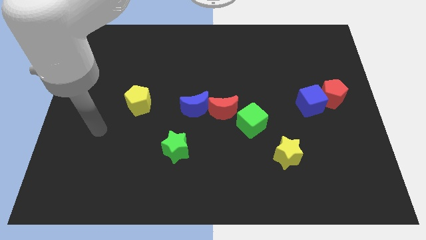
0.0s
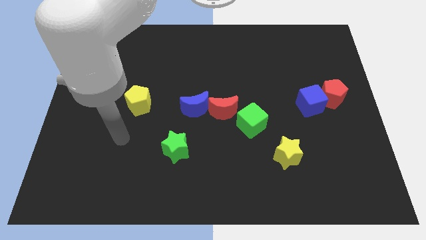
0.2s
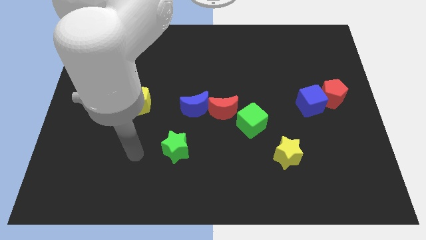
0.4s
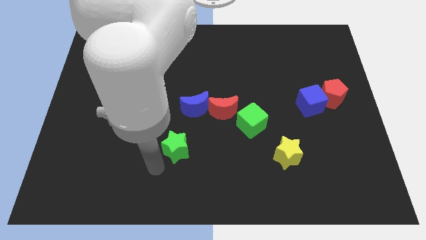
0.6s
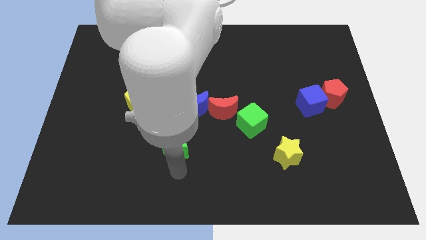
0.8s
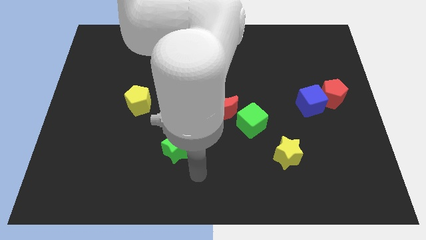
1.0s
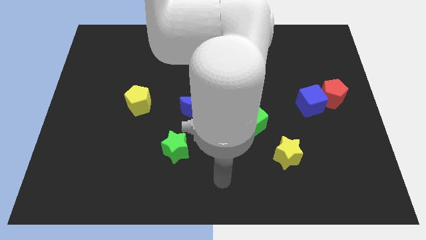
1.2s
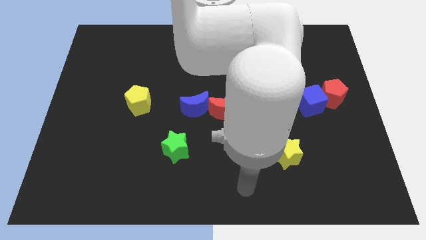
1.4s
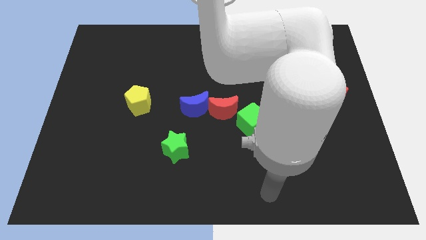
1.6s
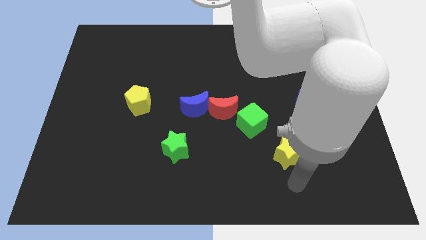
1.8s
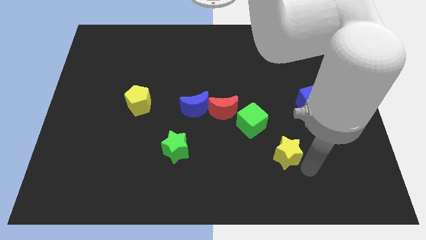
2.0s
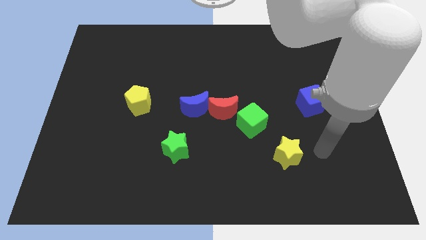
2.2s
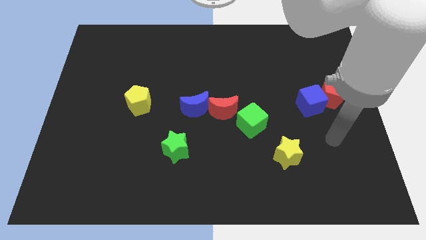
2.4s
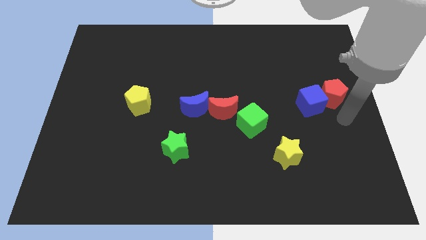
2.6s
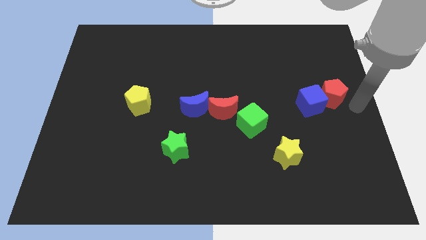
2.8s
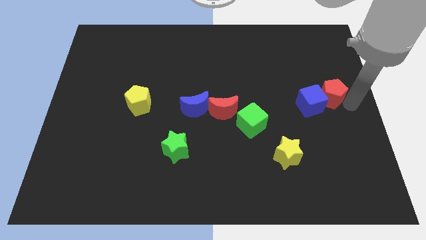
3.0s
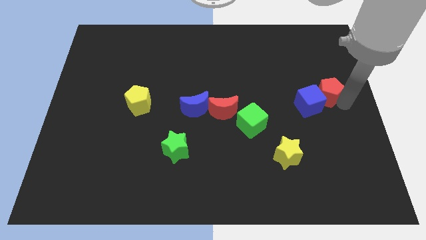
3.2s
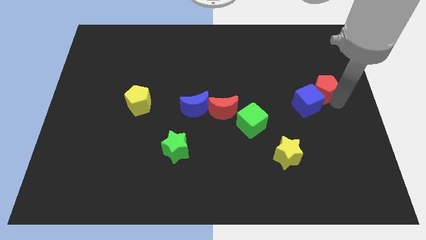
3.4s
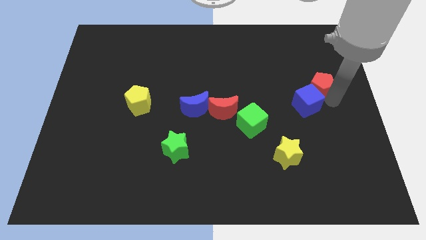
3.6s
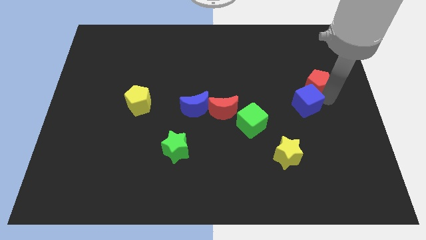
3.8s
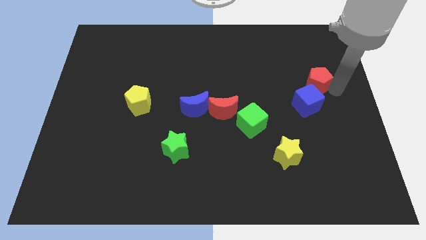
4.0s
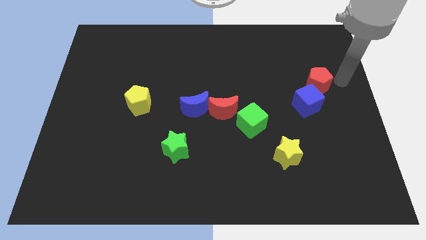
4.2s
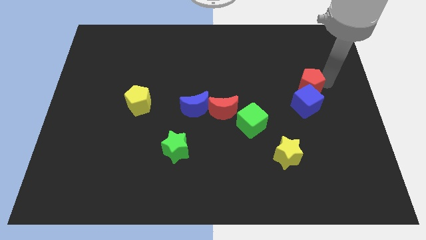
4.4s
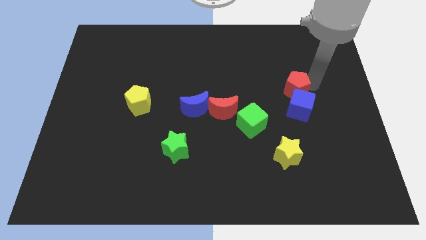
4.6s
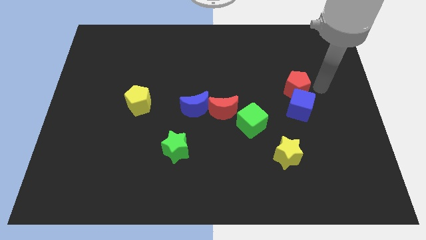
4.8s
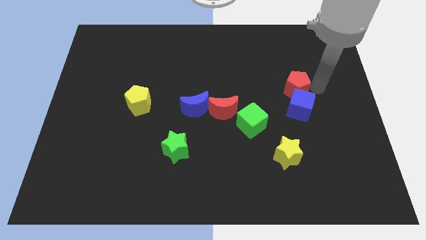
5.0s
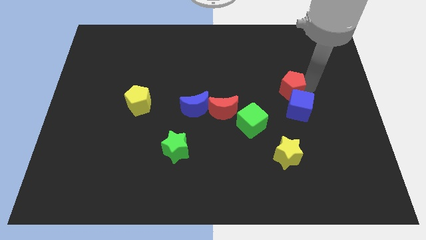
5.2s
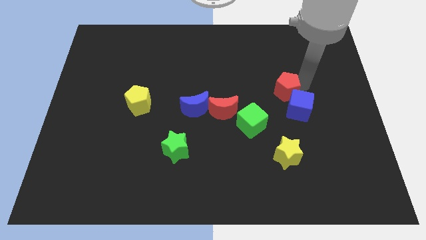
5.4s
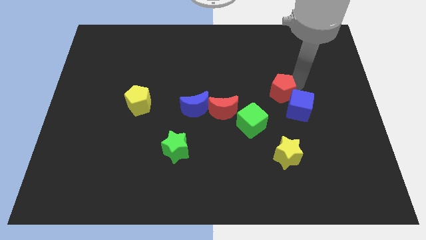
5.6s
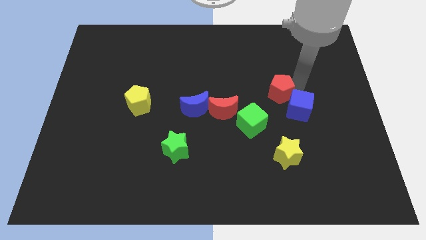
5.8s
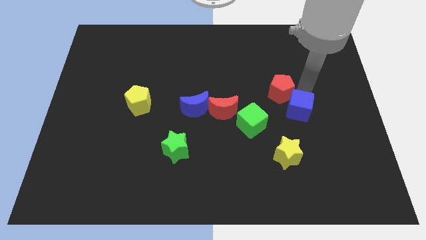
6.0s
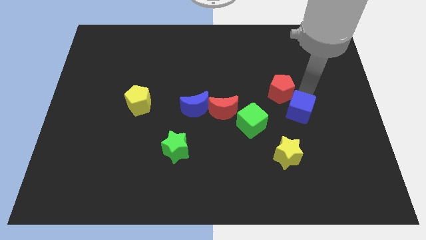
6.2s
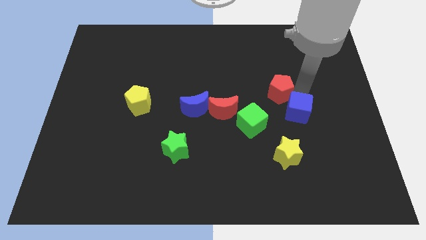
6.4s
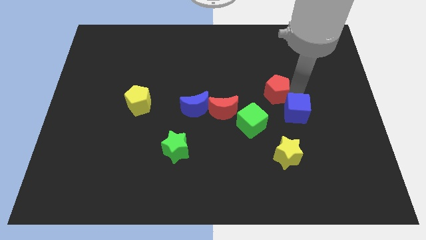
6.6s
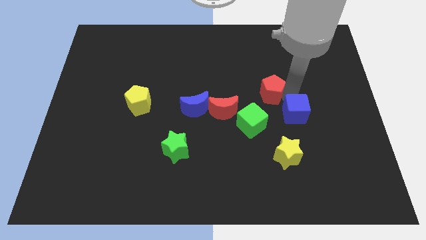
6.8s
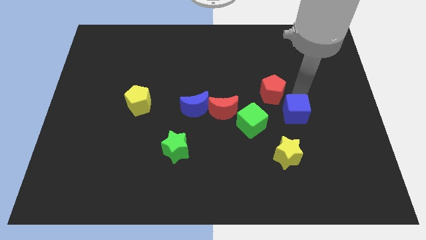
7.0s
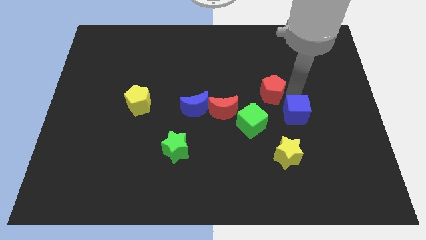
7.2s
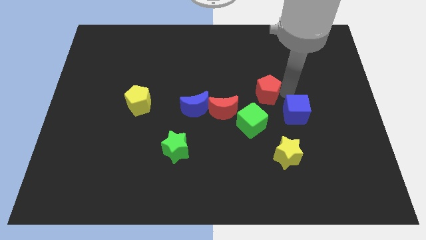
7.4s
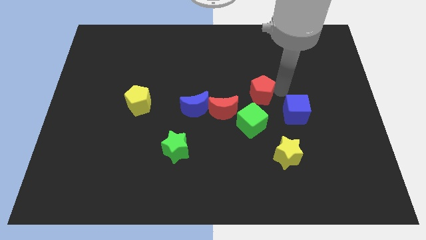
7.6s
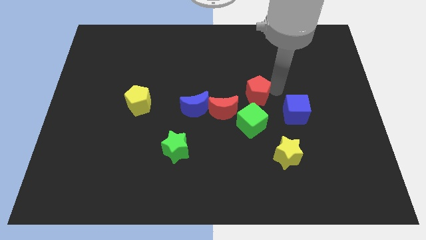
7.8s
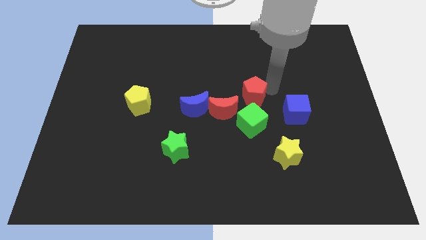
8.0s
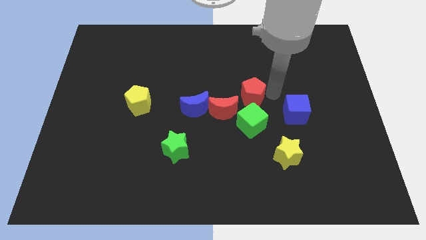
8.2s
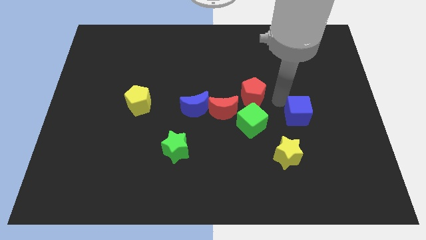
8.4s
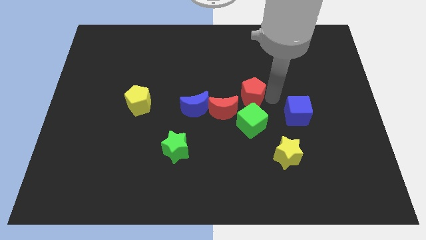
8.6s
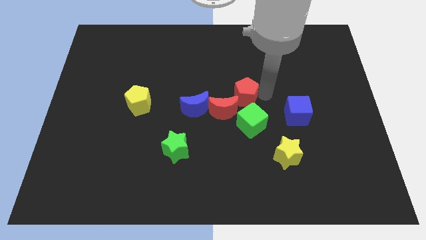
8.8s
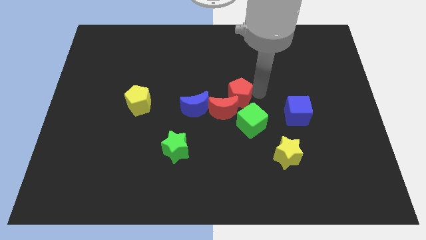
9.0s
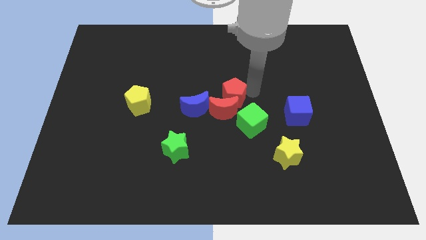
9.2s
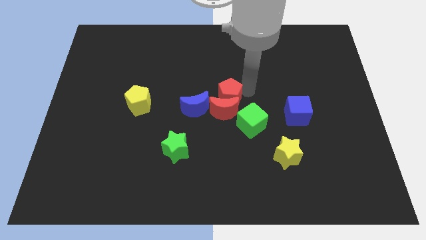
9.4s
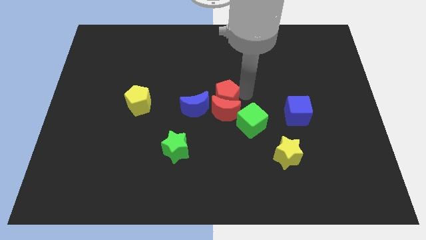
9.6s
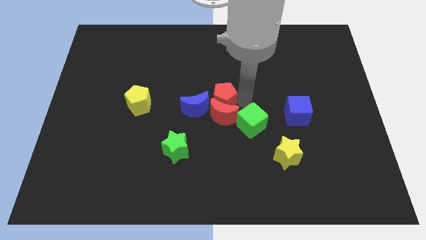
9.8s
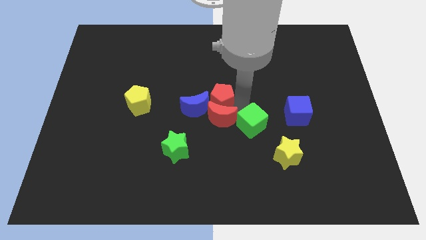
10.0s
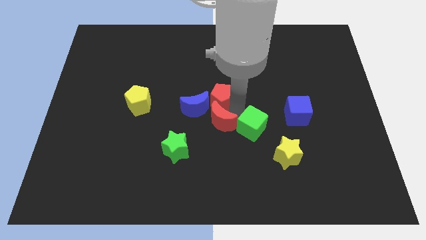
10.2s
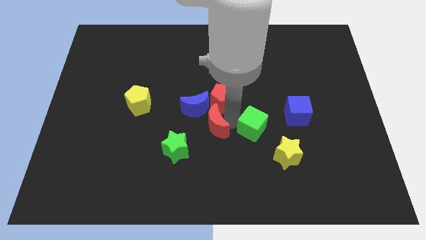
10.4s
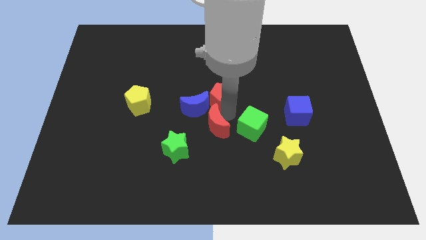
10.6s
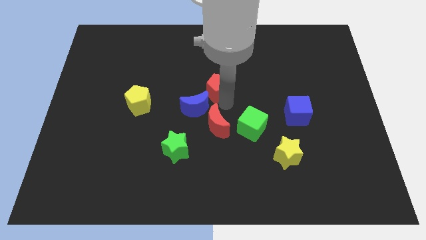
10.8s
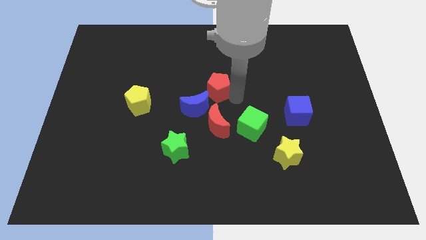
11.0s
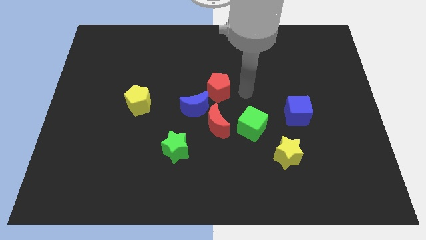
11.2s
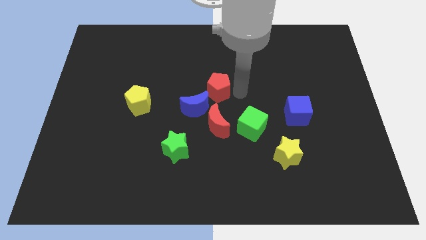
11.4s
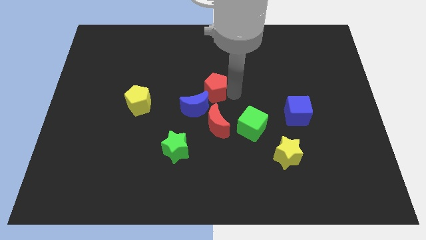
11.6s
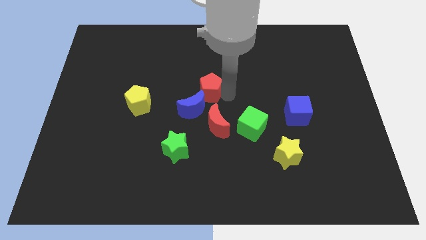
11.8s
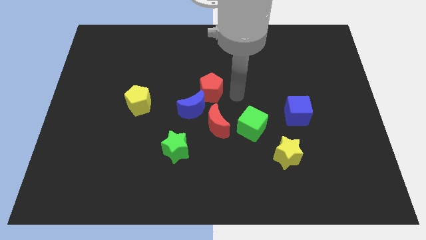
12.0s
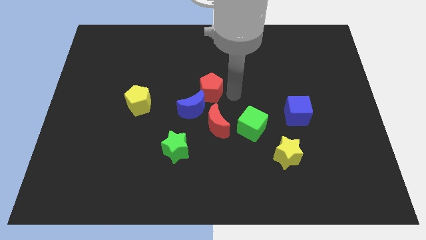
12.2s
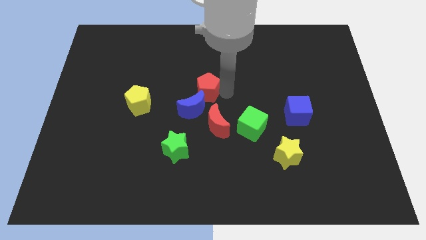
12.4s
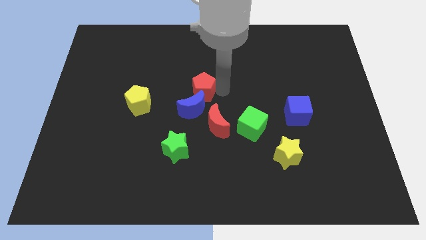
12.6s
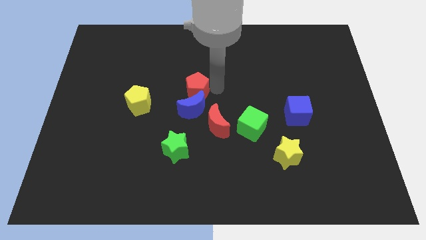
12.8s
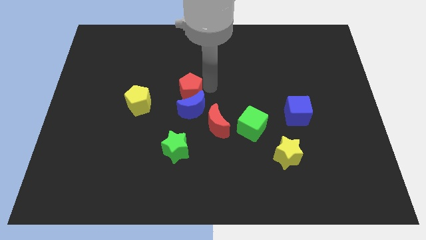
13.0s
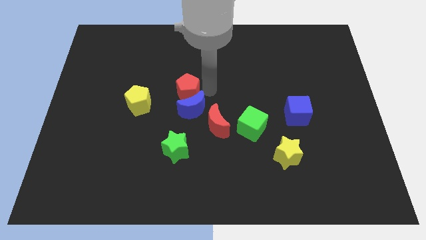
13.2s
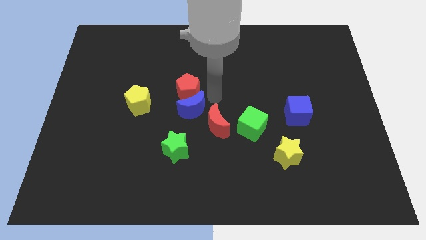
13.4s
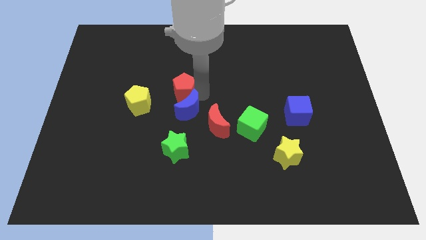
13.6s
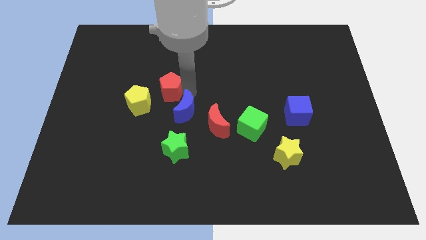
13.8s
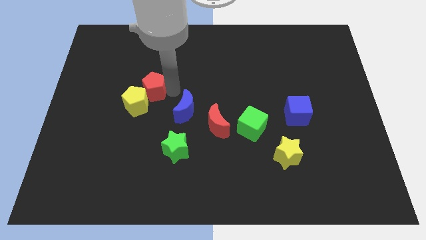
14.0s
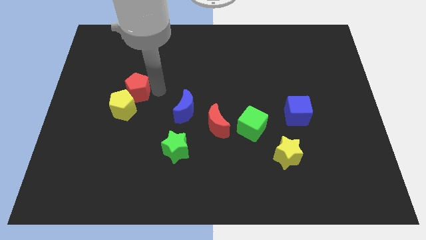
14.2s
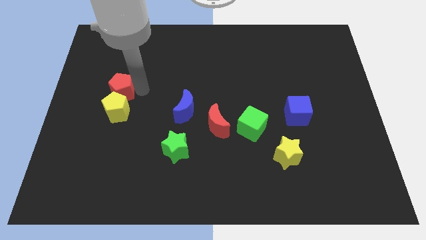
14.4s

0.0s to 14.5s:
push the red pentagon to the top left side of the yellow pentagon

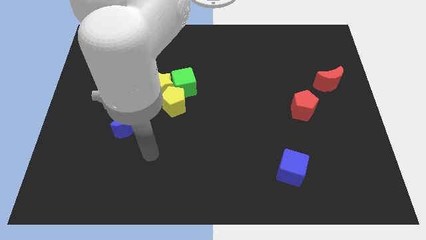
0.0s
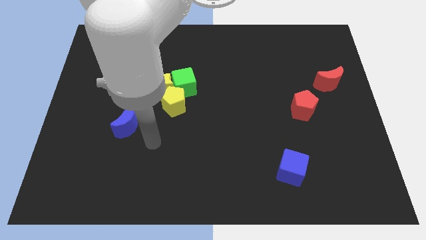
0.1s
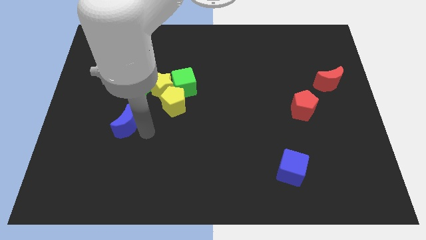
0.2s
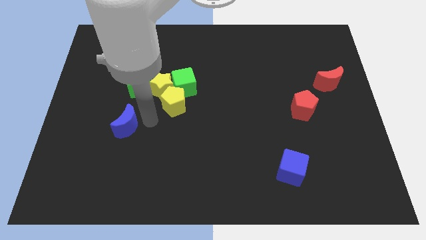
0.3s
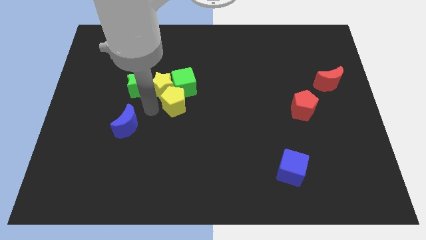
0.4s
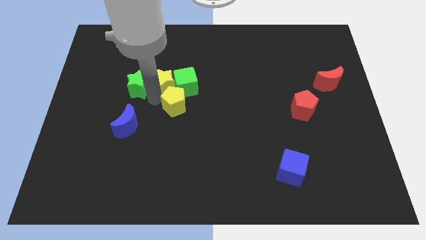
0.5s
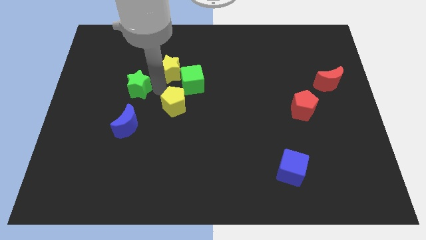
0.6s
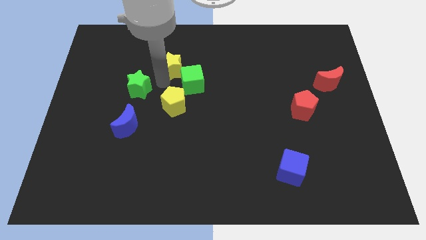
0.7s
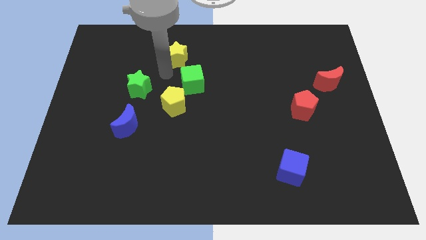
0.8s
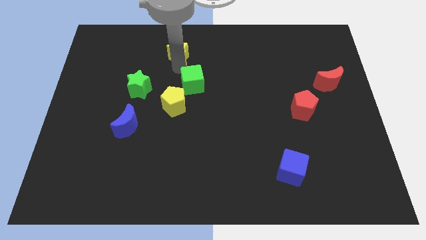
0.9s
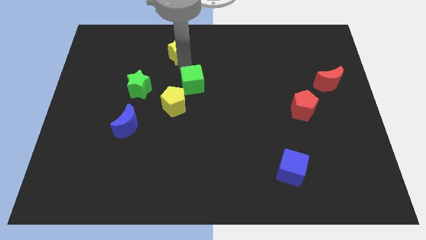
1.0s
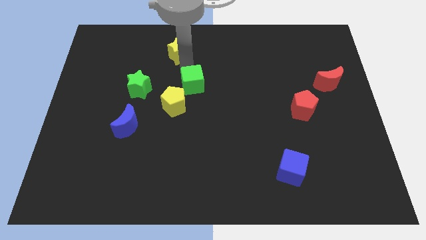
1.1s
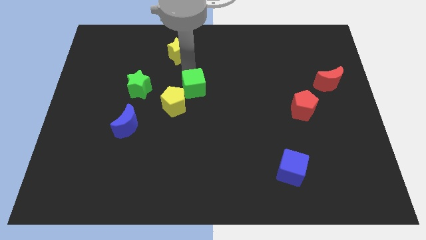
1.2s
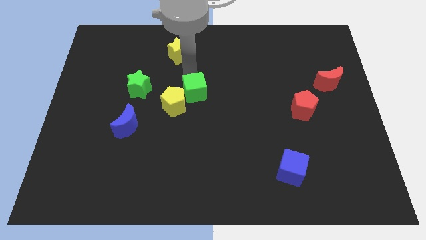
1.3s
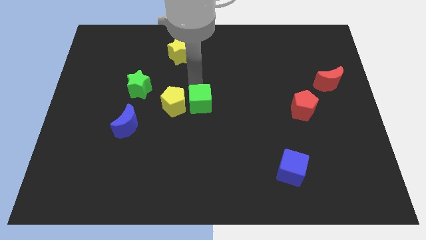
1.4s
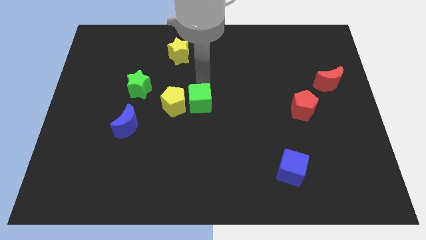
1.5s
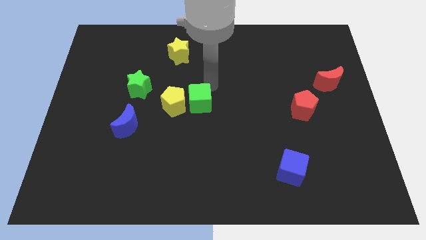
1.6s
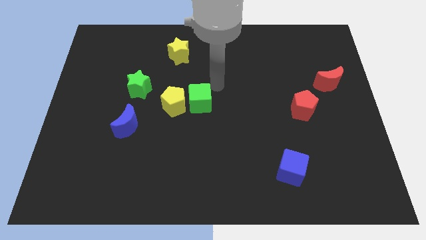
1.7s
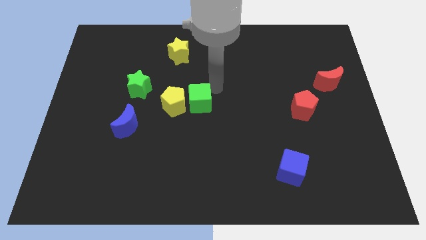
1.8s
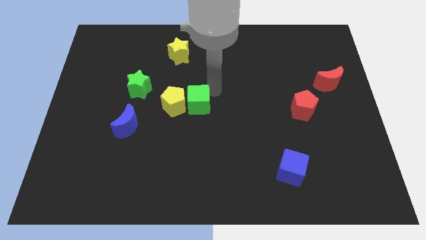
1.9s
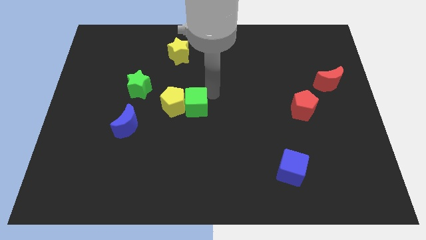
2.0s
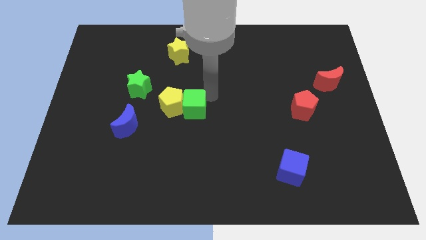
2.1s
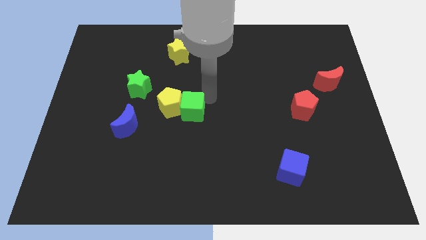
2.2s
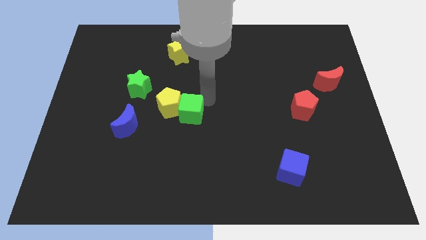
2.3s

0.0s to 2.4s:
push the green cube to the right of the blue moon
